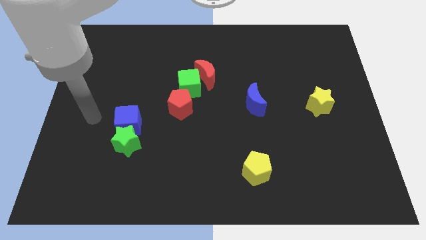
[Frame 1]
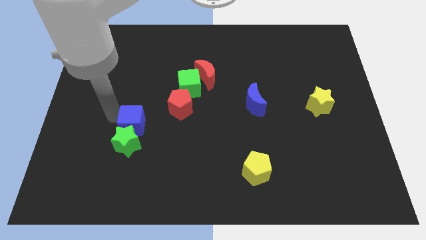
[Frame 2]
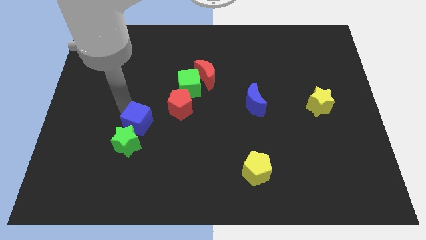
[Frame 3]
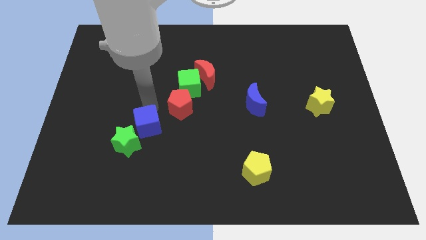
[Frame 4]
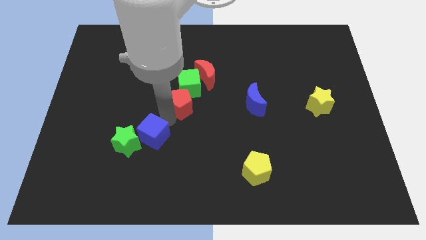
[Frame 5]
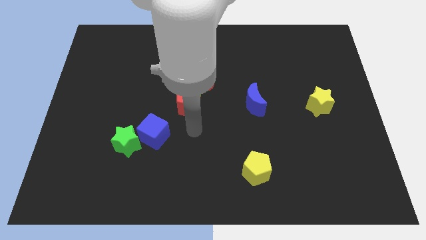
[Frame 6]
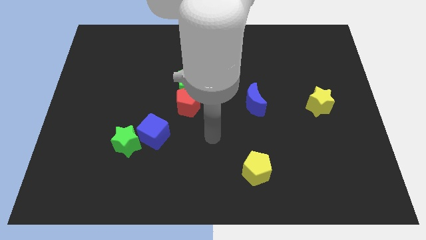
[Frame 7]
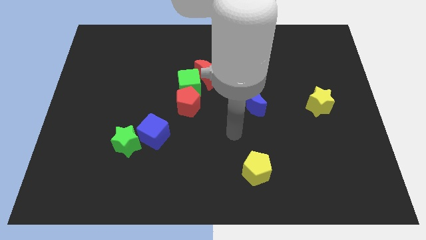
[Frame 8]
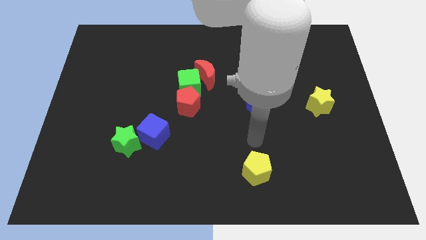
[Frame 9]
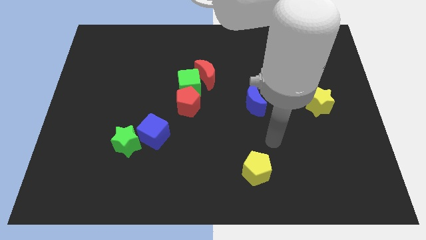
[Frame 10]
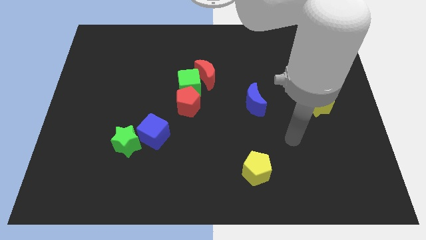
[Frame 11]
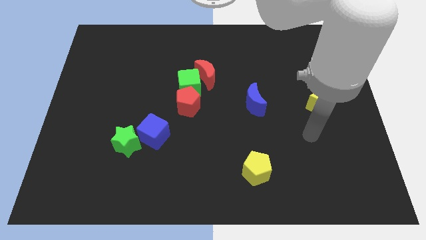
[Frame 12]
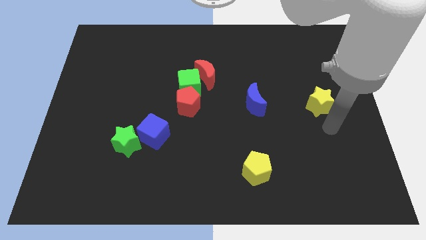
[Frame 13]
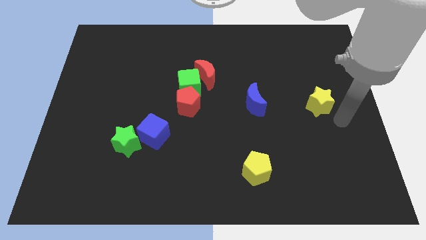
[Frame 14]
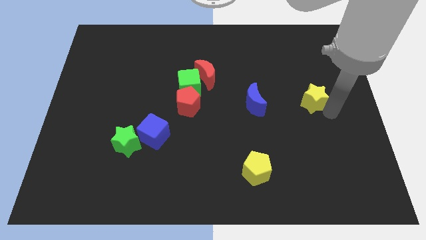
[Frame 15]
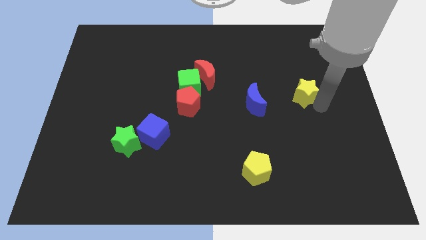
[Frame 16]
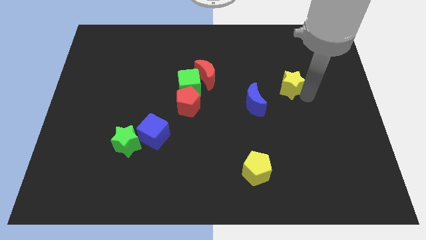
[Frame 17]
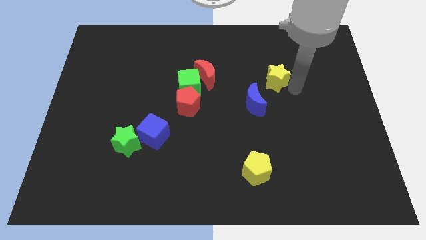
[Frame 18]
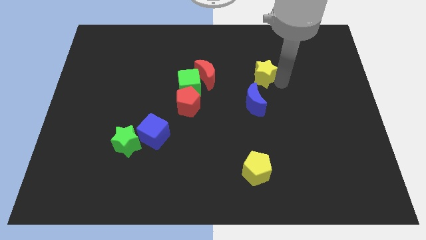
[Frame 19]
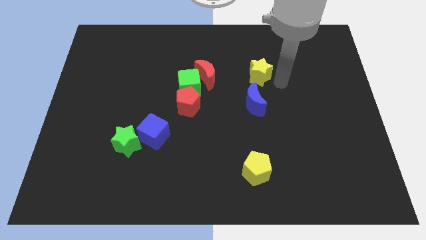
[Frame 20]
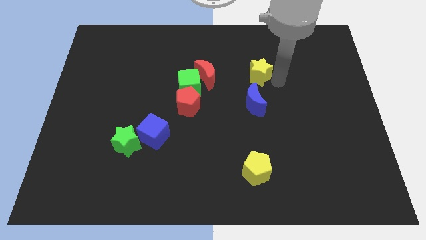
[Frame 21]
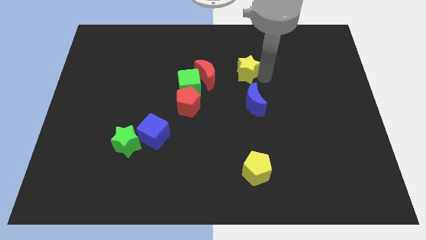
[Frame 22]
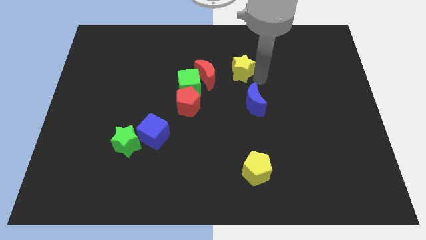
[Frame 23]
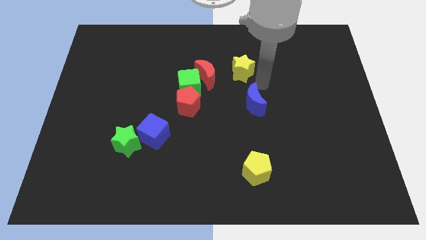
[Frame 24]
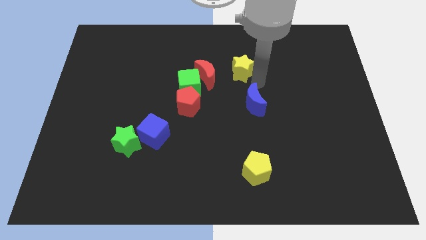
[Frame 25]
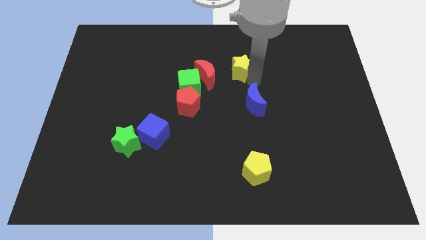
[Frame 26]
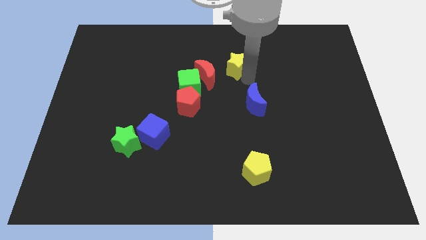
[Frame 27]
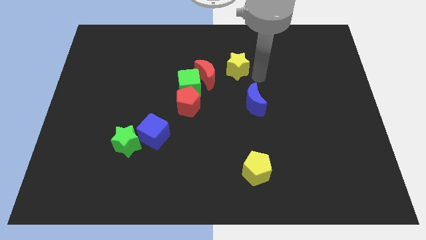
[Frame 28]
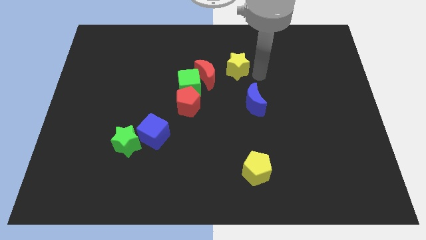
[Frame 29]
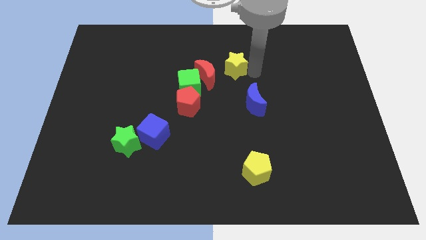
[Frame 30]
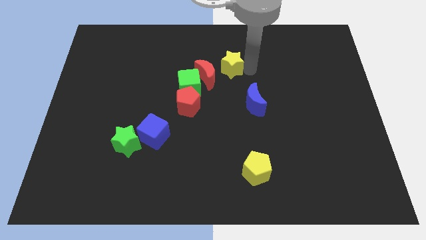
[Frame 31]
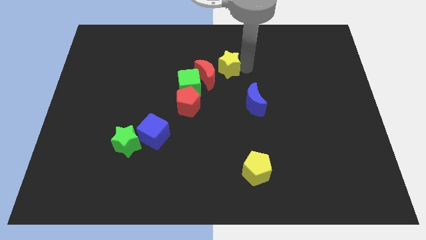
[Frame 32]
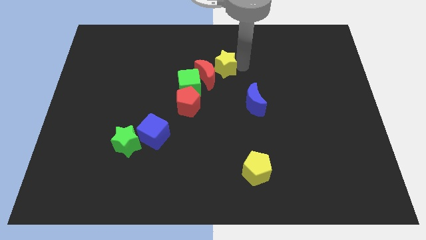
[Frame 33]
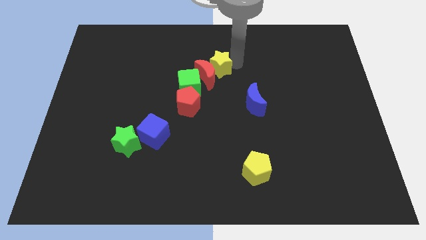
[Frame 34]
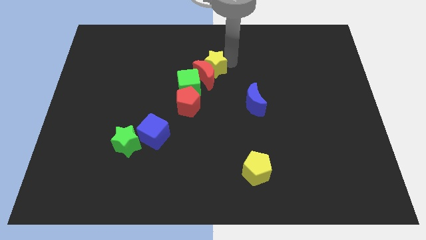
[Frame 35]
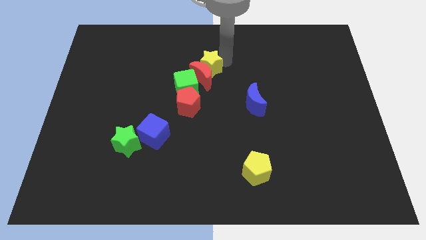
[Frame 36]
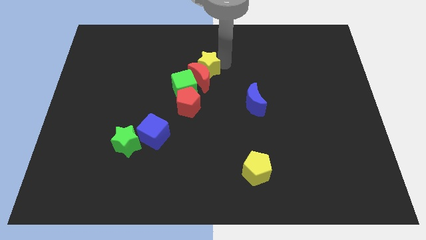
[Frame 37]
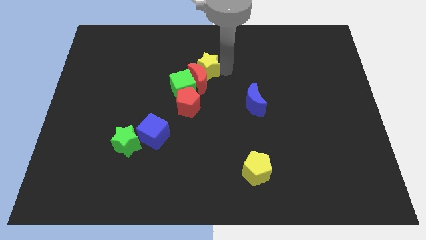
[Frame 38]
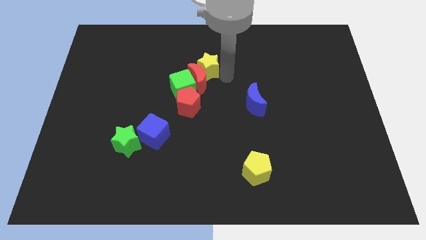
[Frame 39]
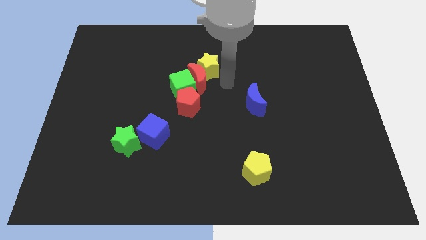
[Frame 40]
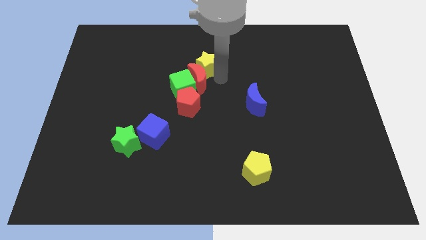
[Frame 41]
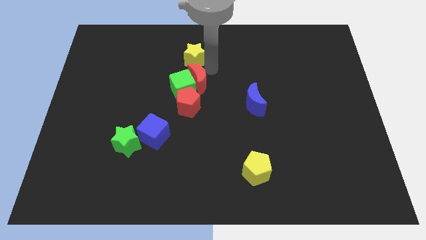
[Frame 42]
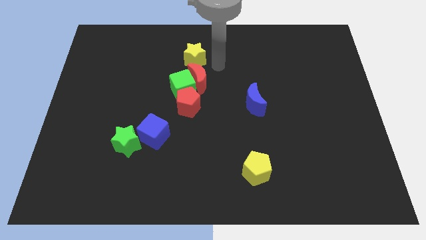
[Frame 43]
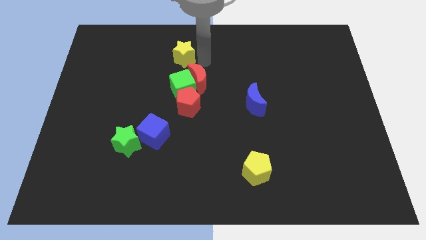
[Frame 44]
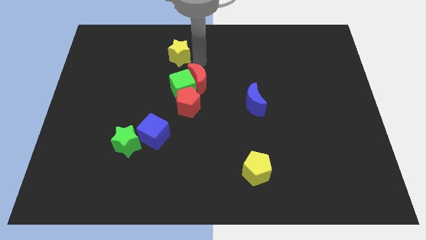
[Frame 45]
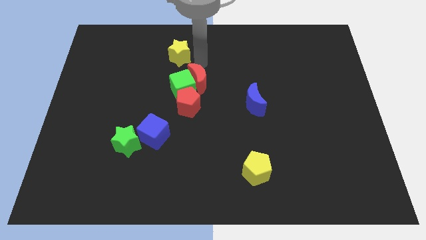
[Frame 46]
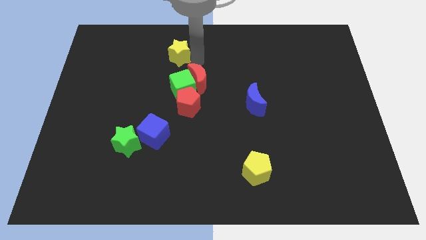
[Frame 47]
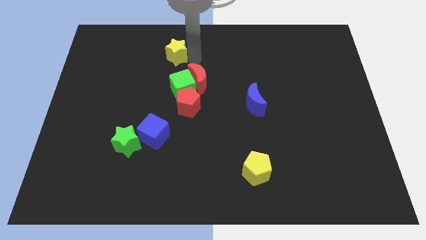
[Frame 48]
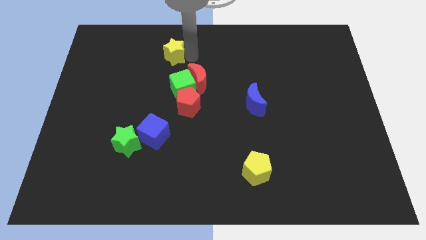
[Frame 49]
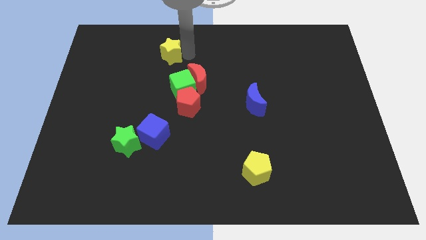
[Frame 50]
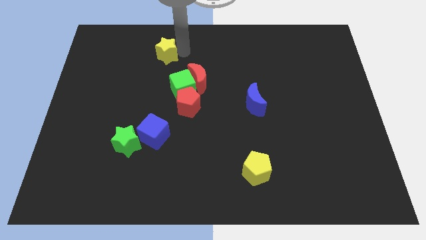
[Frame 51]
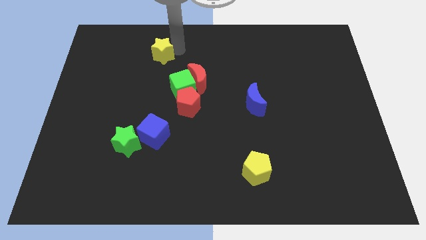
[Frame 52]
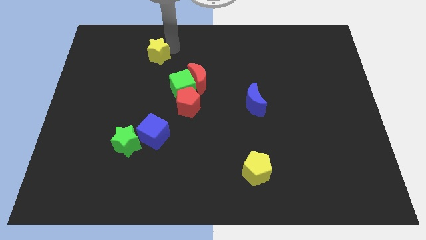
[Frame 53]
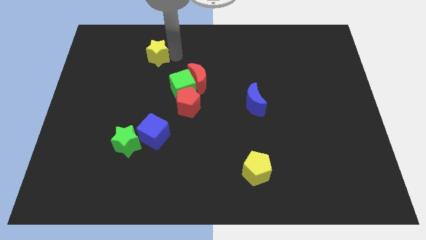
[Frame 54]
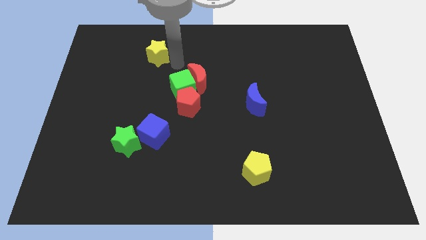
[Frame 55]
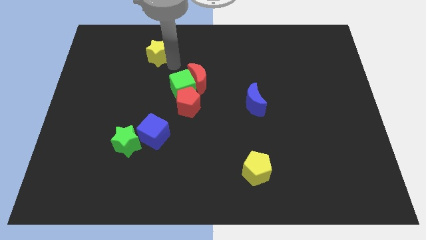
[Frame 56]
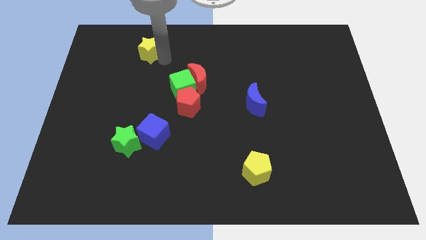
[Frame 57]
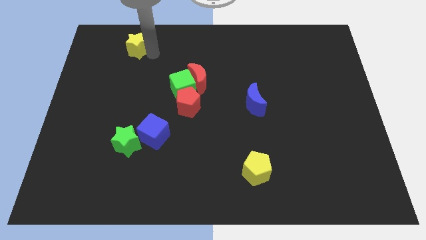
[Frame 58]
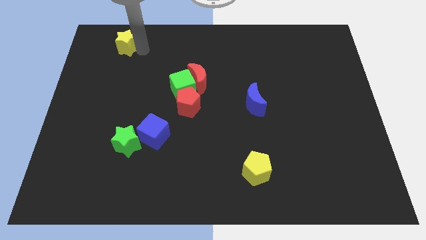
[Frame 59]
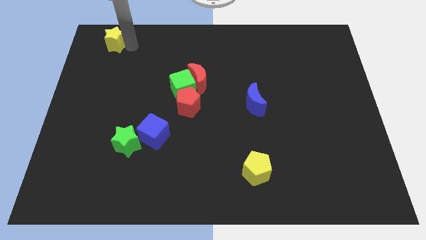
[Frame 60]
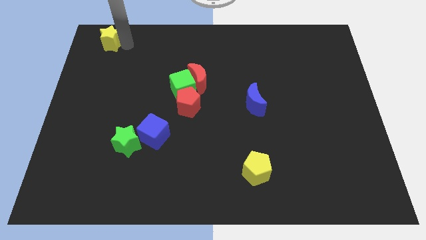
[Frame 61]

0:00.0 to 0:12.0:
put the yellow star to the top left corner
